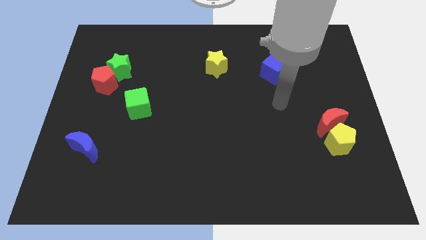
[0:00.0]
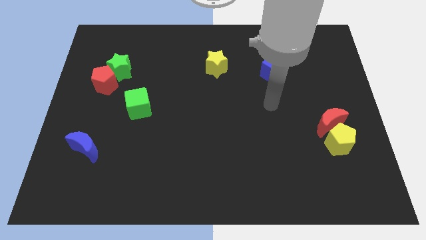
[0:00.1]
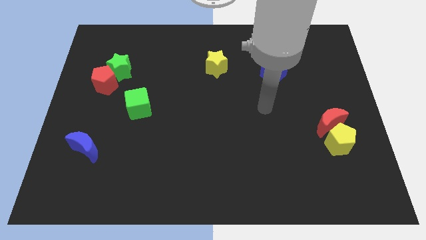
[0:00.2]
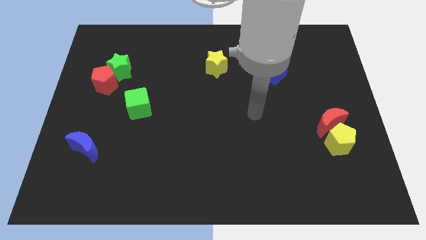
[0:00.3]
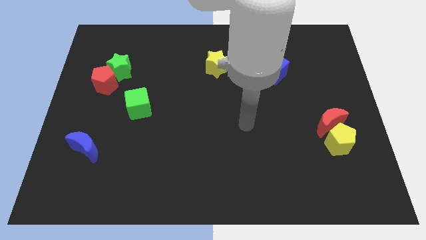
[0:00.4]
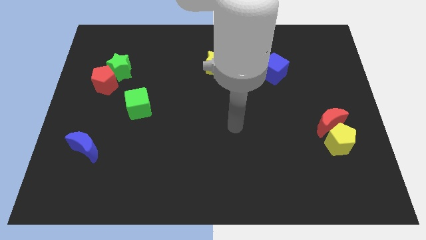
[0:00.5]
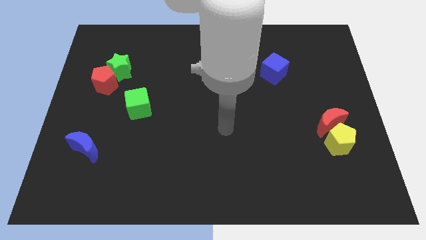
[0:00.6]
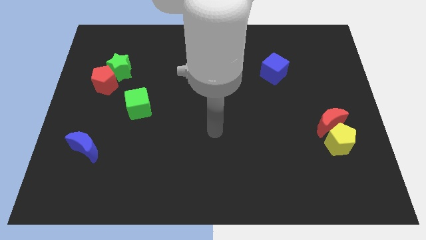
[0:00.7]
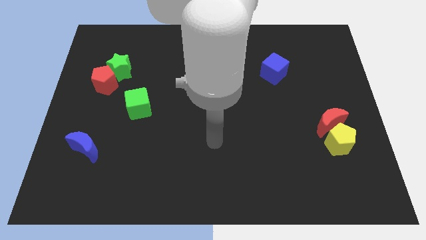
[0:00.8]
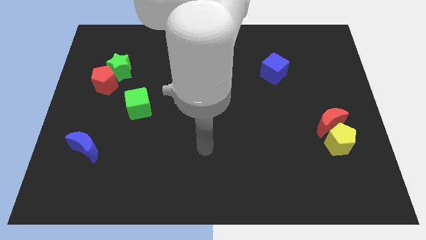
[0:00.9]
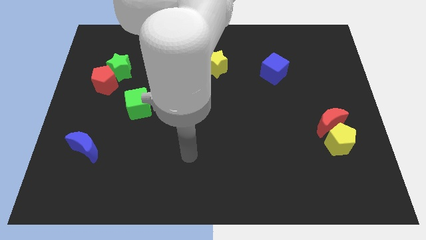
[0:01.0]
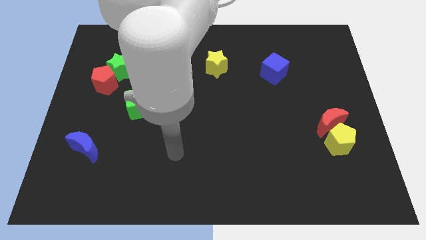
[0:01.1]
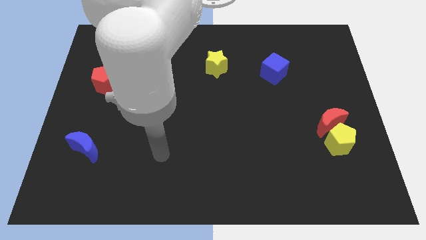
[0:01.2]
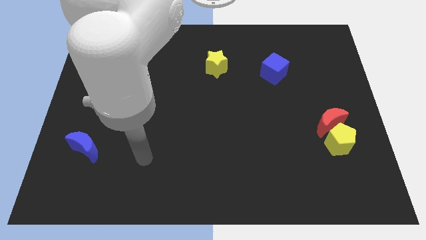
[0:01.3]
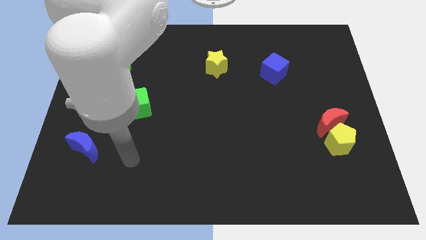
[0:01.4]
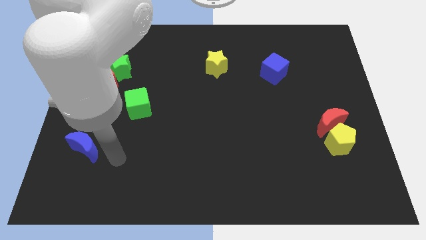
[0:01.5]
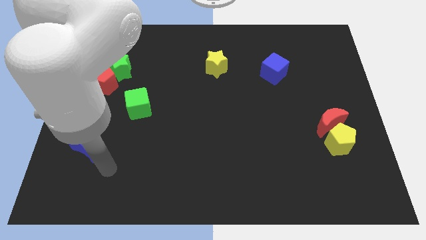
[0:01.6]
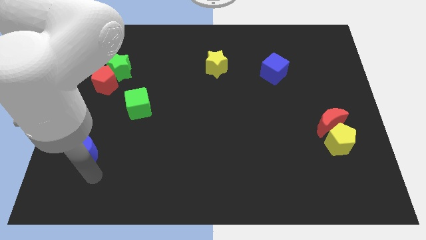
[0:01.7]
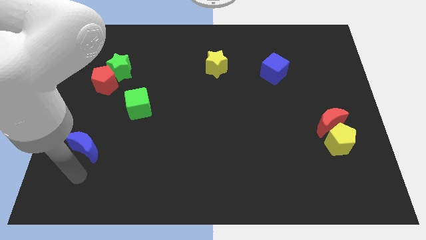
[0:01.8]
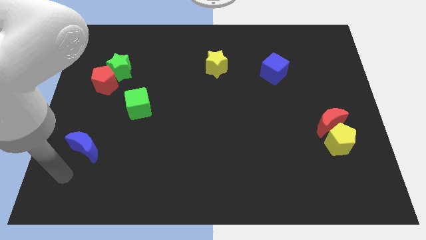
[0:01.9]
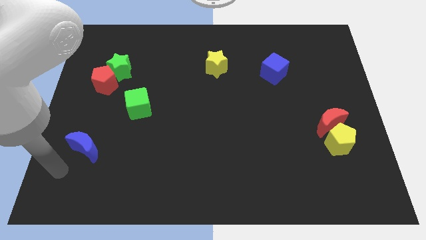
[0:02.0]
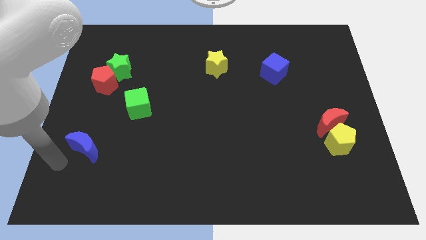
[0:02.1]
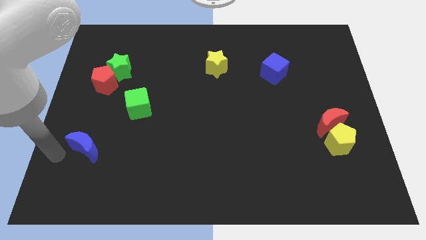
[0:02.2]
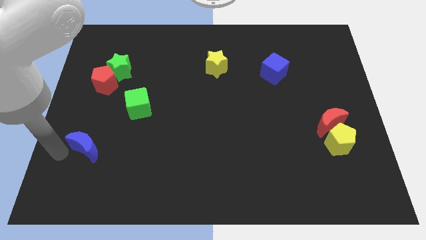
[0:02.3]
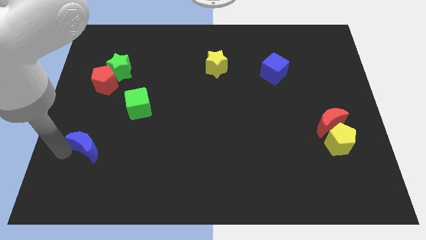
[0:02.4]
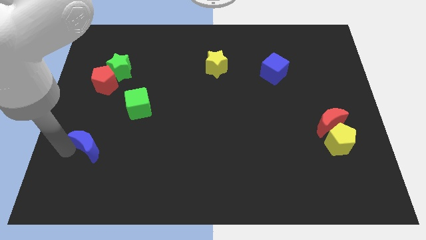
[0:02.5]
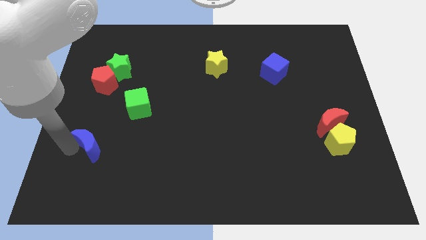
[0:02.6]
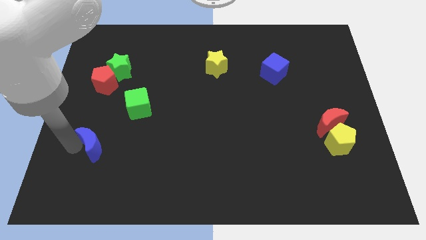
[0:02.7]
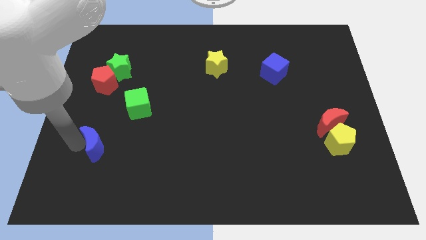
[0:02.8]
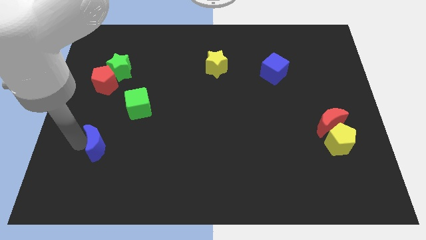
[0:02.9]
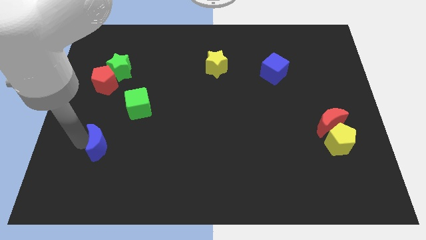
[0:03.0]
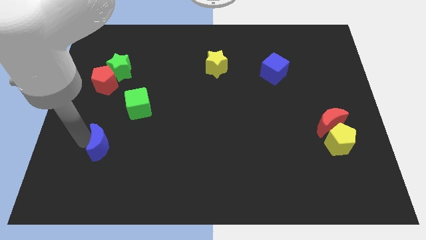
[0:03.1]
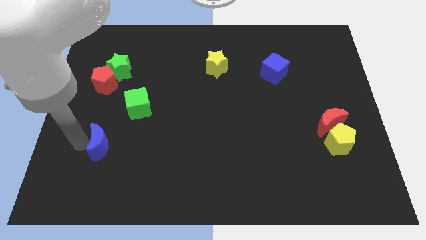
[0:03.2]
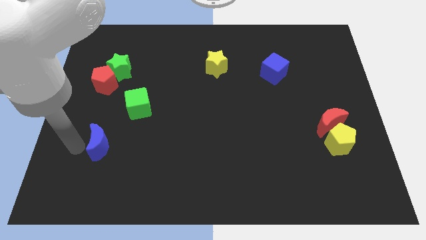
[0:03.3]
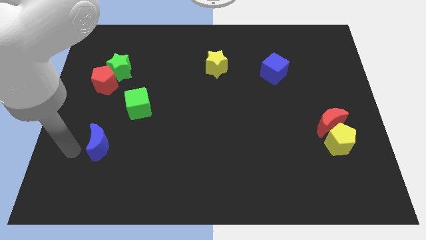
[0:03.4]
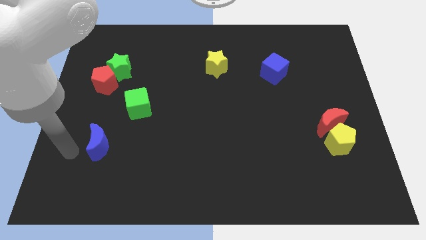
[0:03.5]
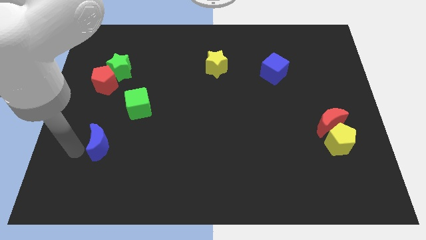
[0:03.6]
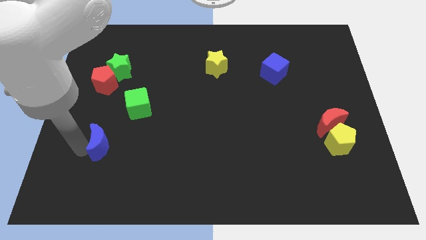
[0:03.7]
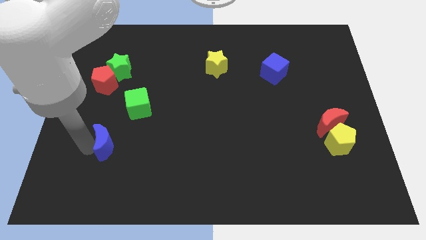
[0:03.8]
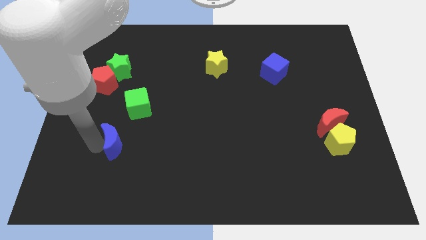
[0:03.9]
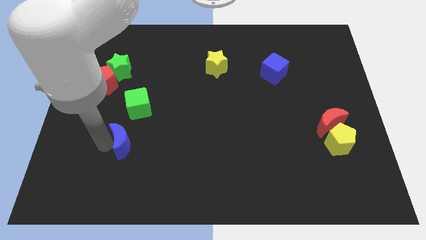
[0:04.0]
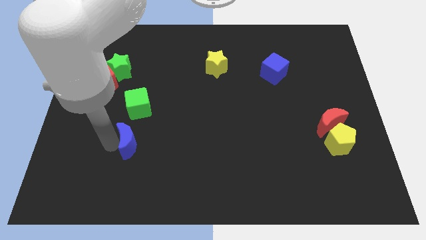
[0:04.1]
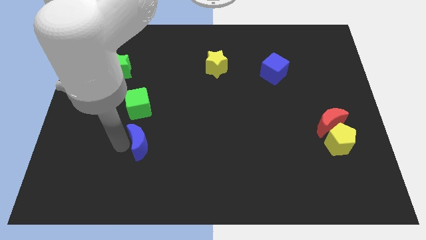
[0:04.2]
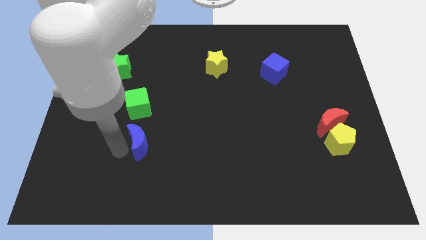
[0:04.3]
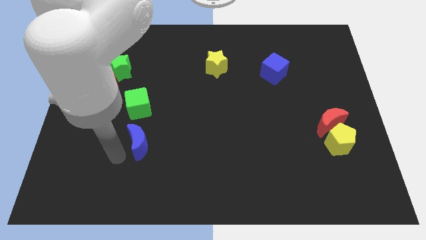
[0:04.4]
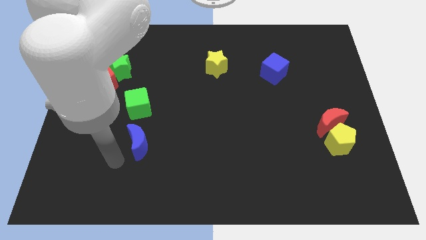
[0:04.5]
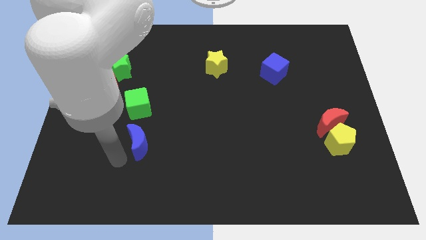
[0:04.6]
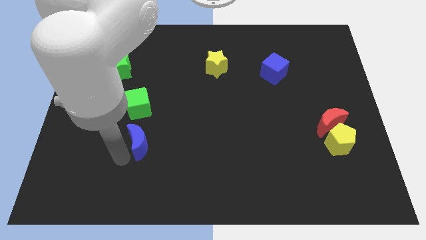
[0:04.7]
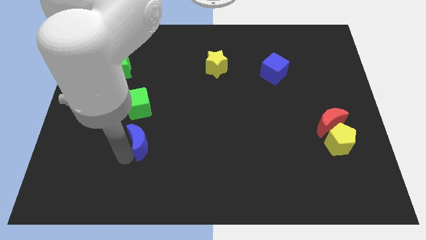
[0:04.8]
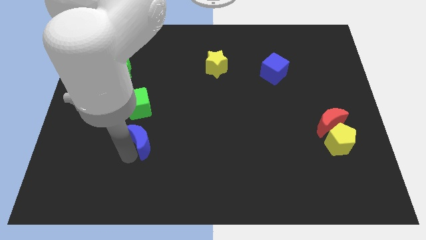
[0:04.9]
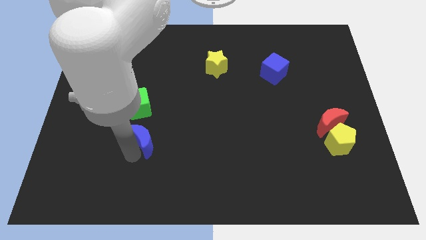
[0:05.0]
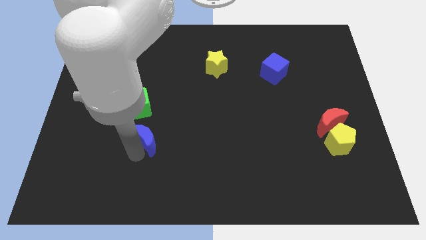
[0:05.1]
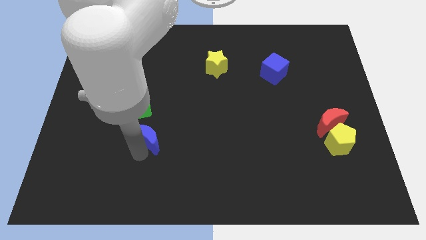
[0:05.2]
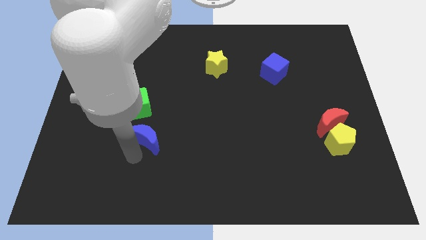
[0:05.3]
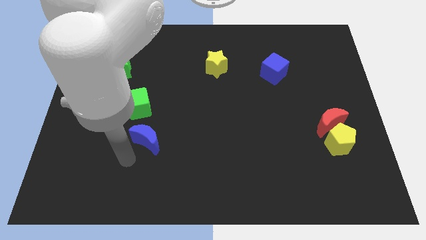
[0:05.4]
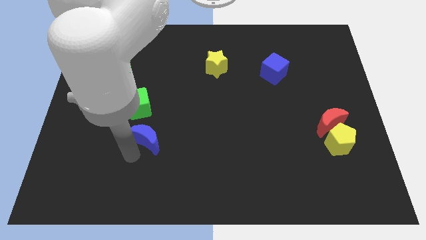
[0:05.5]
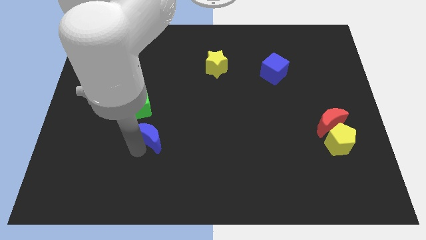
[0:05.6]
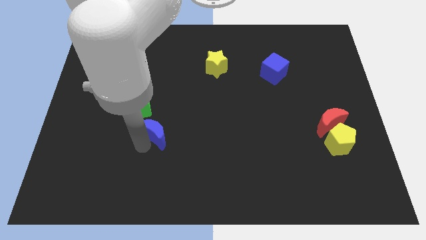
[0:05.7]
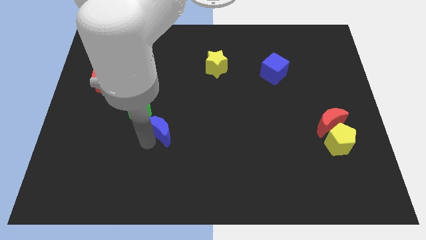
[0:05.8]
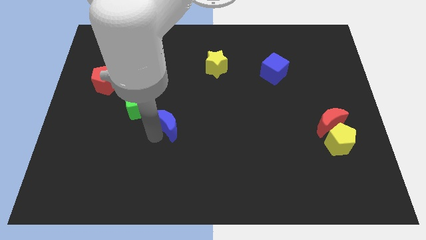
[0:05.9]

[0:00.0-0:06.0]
slide the blue moon to the middle

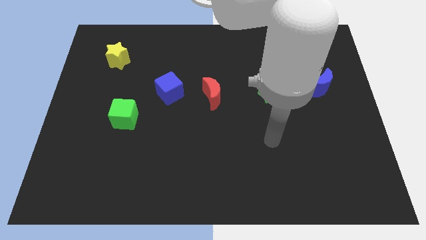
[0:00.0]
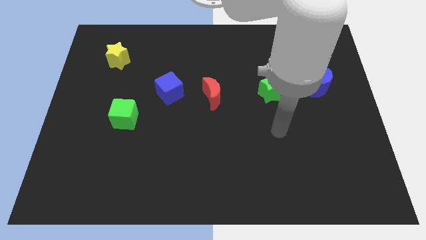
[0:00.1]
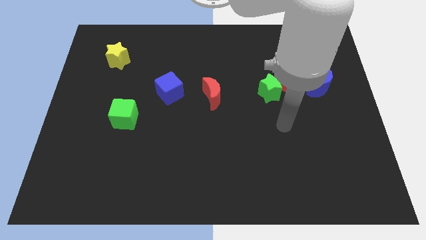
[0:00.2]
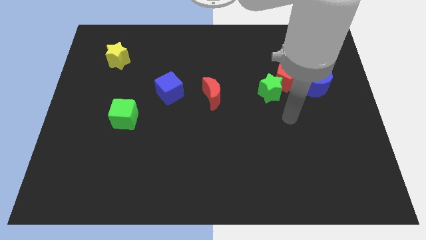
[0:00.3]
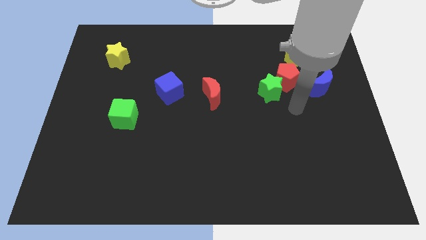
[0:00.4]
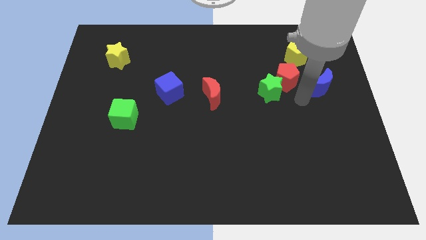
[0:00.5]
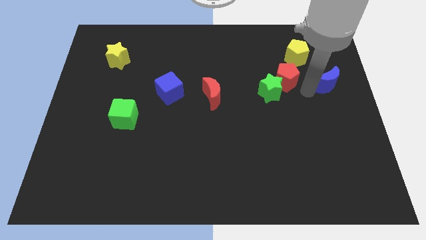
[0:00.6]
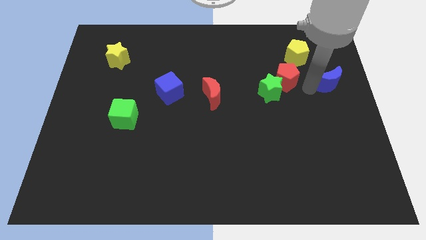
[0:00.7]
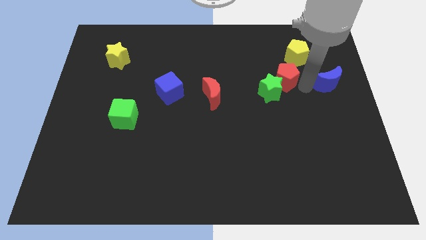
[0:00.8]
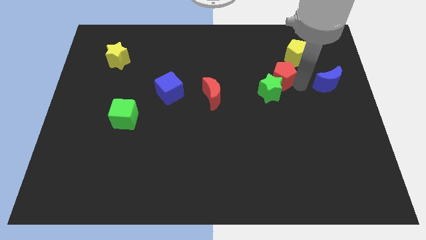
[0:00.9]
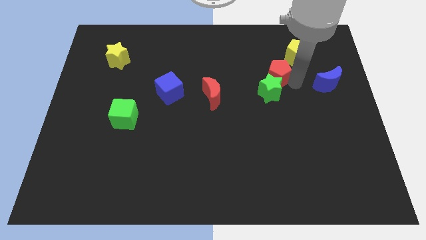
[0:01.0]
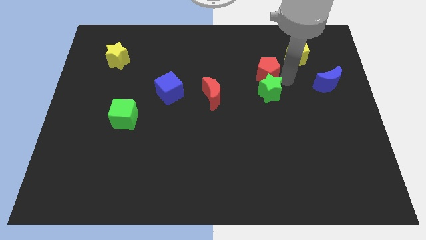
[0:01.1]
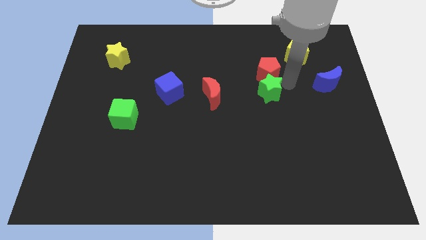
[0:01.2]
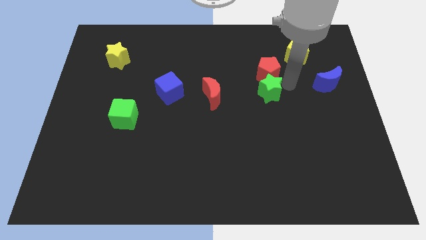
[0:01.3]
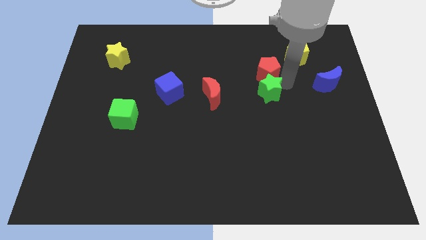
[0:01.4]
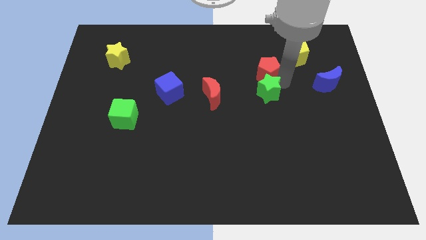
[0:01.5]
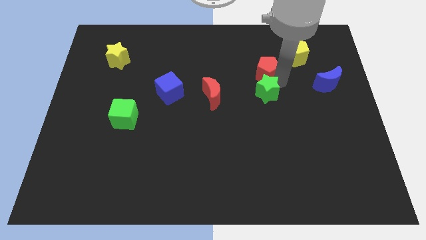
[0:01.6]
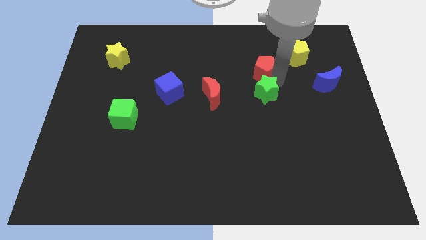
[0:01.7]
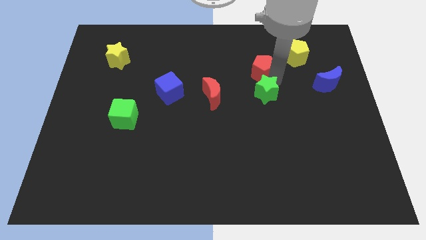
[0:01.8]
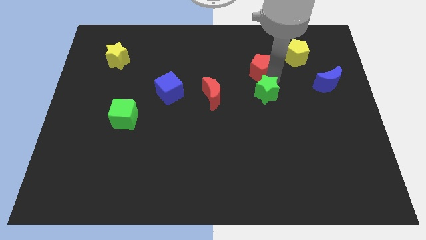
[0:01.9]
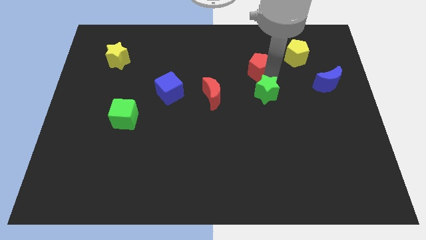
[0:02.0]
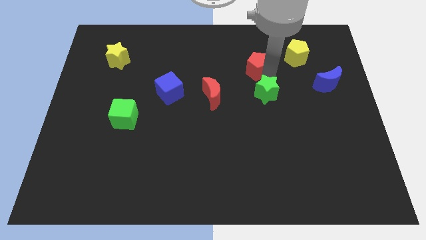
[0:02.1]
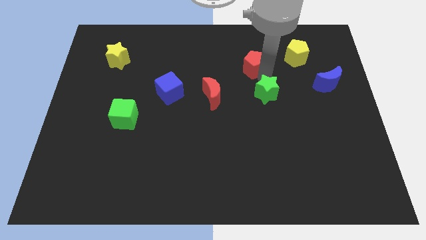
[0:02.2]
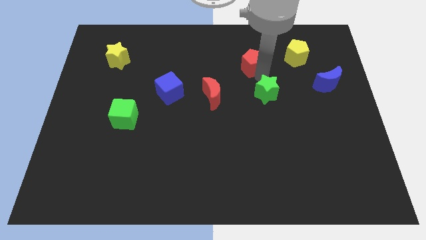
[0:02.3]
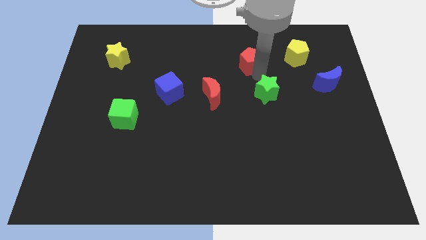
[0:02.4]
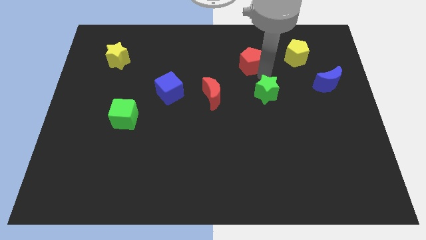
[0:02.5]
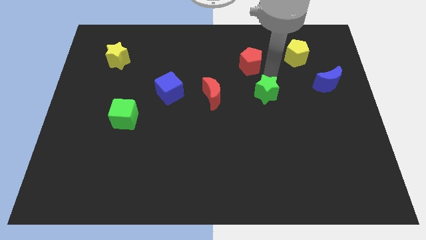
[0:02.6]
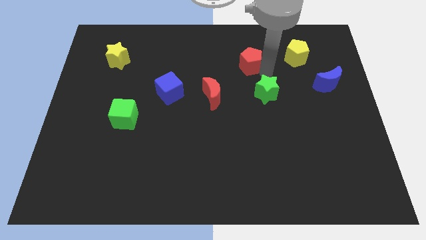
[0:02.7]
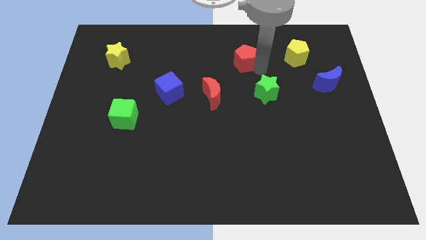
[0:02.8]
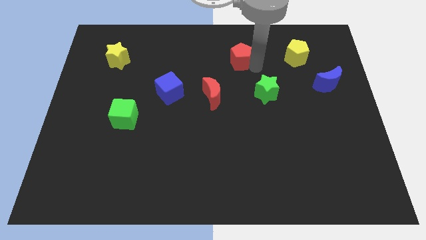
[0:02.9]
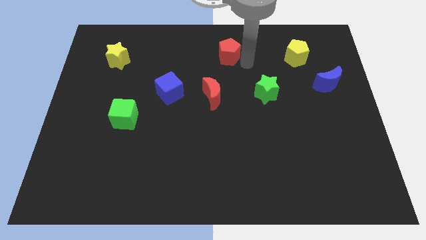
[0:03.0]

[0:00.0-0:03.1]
slide the red pentagon to the top
